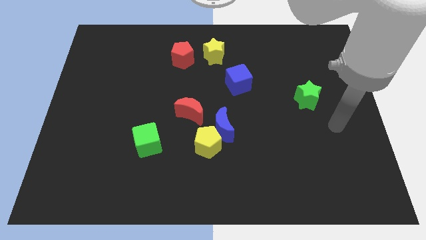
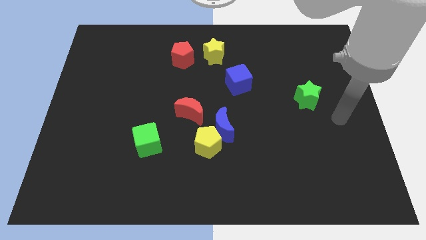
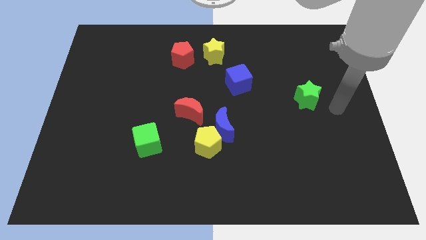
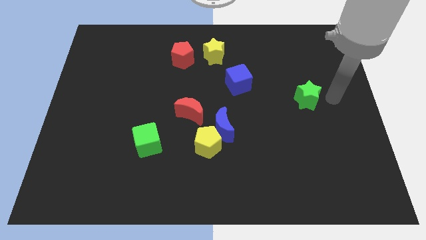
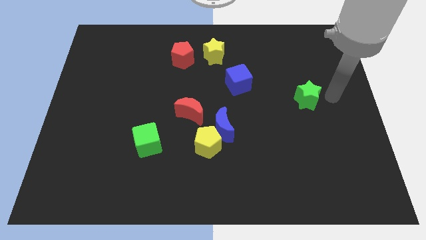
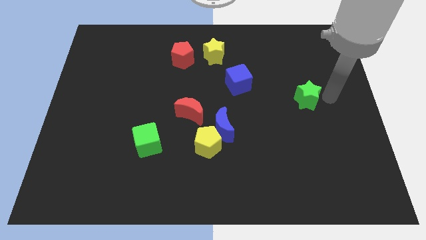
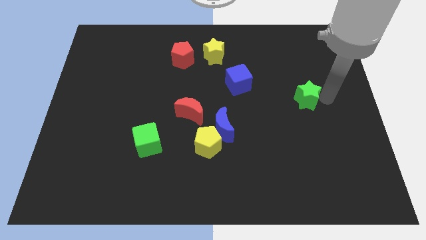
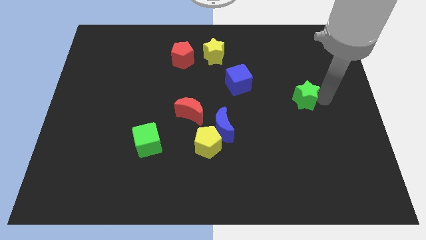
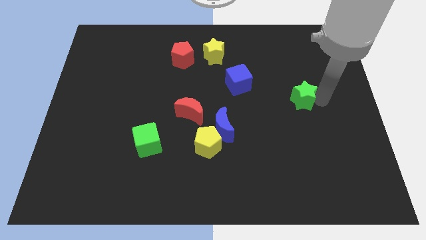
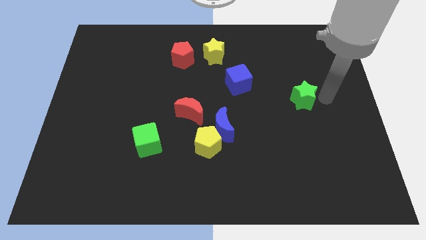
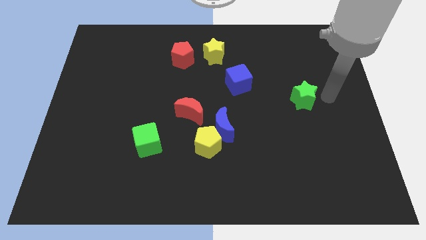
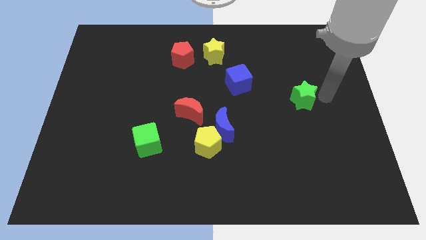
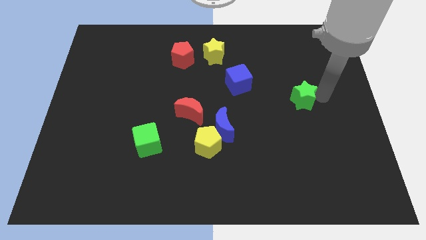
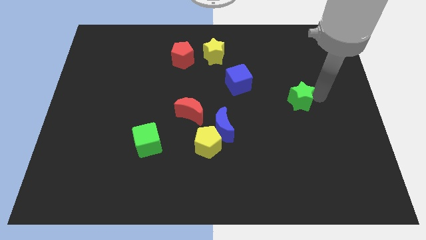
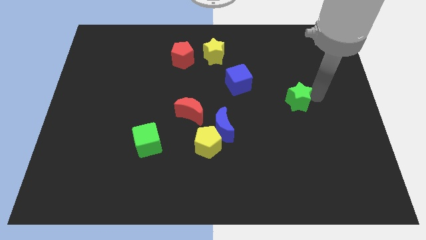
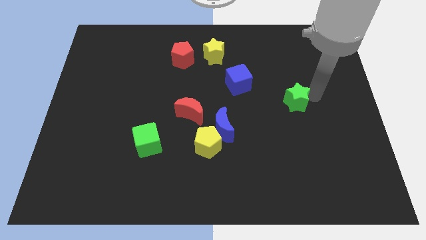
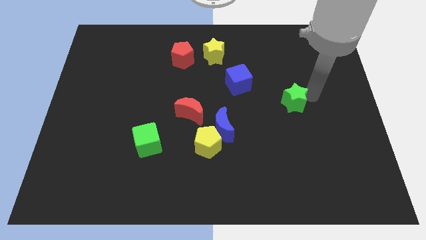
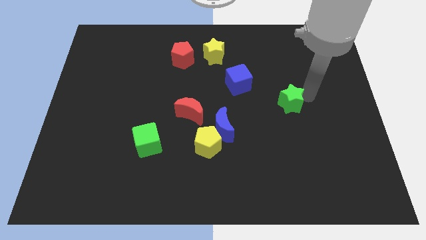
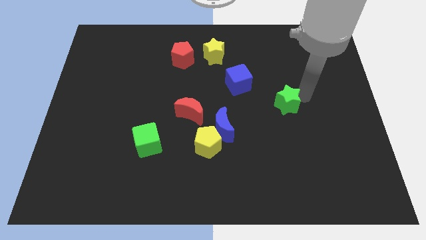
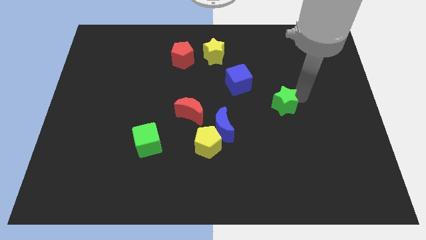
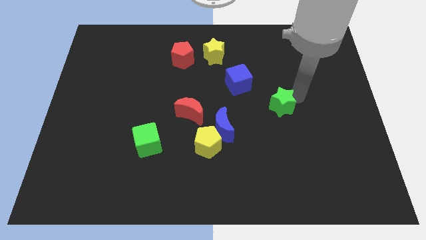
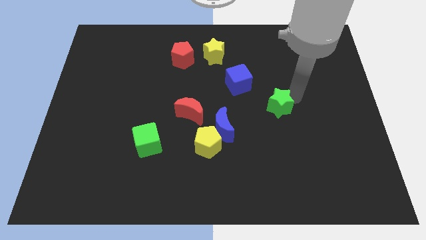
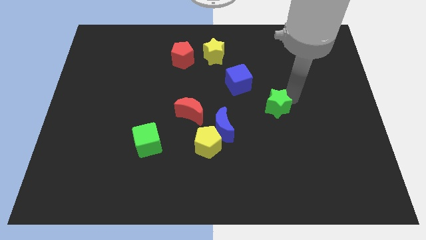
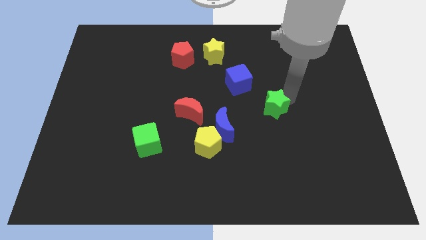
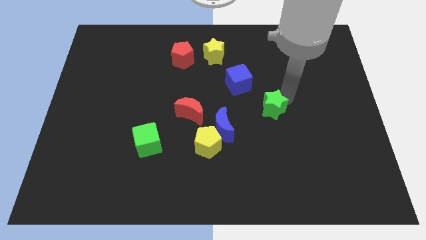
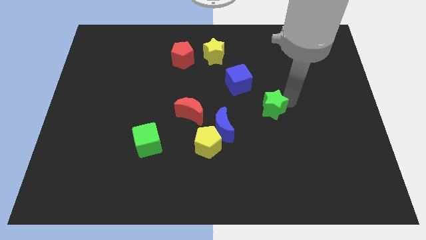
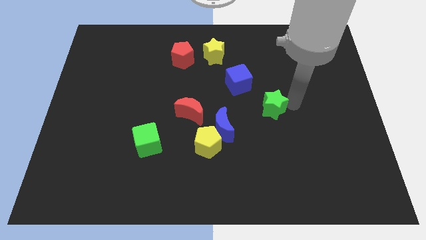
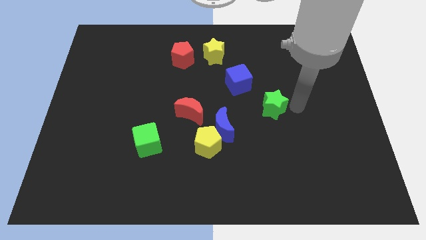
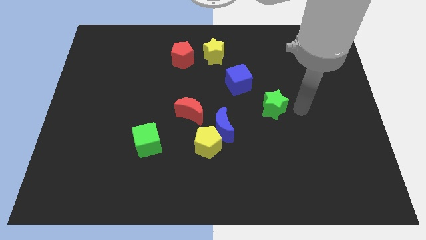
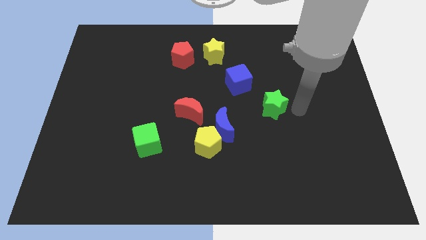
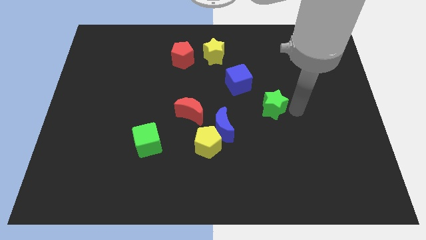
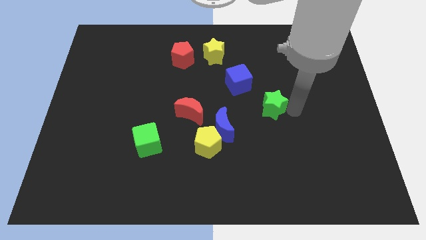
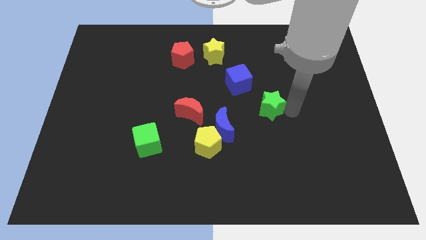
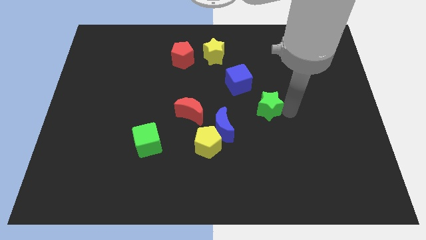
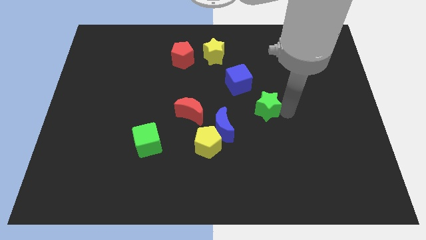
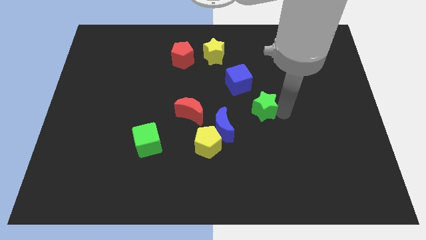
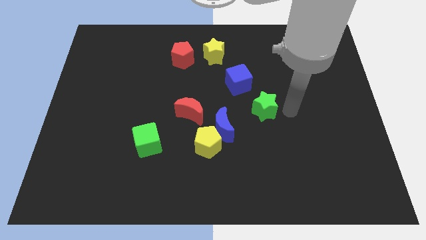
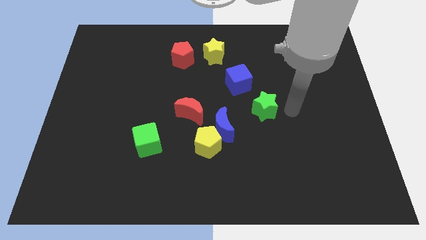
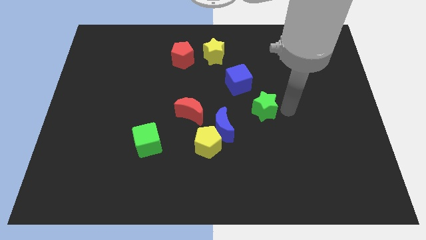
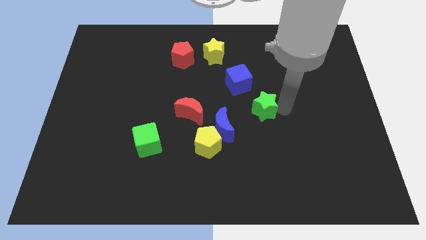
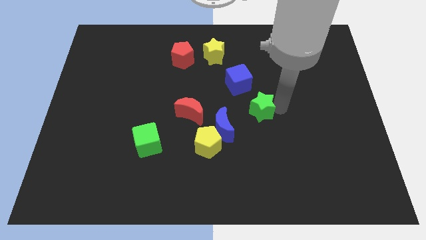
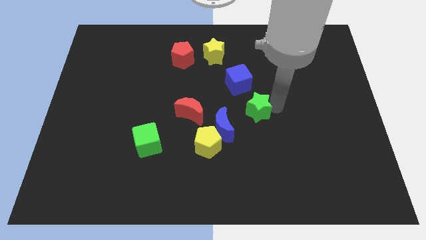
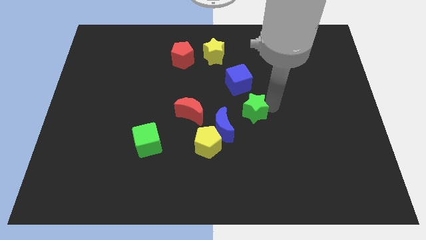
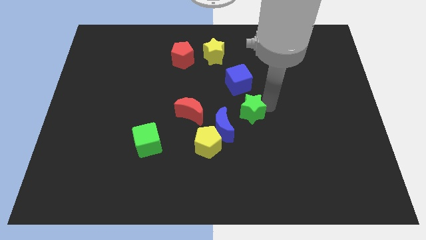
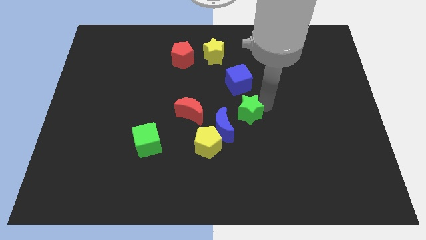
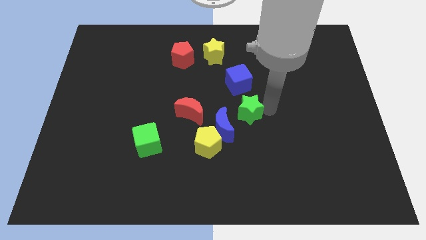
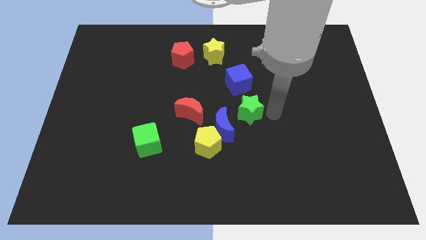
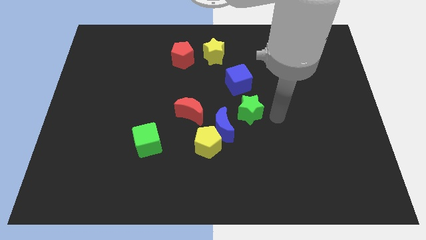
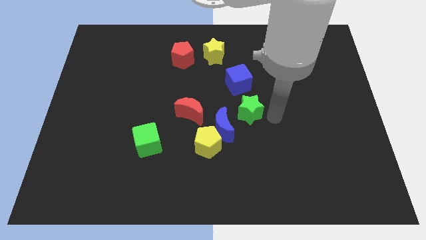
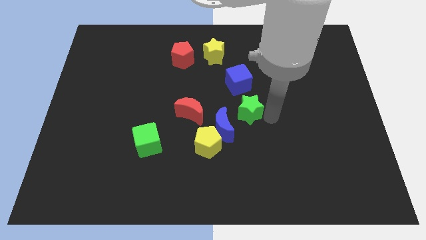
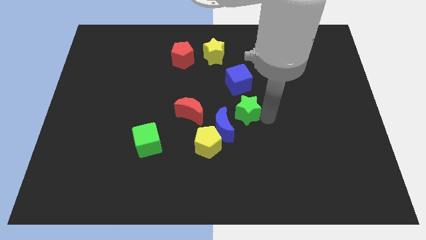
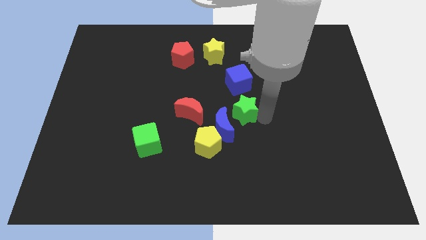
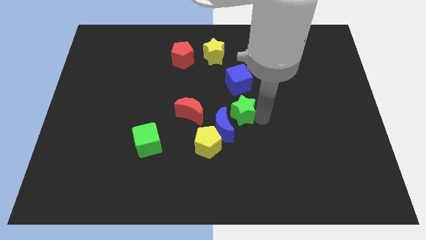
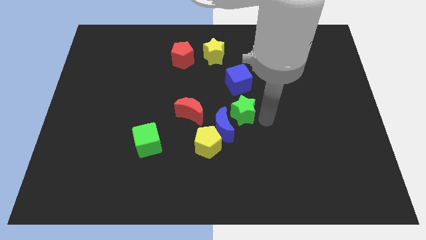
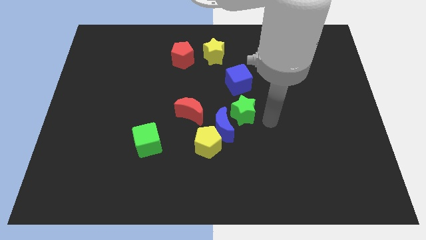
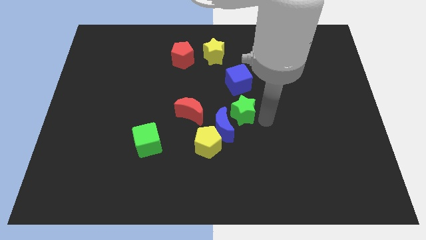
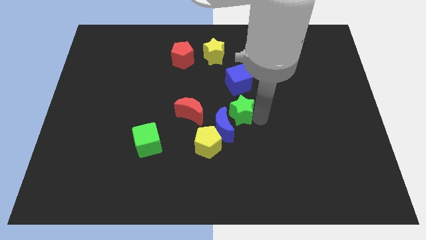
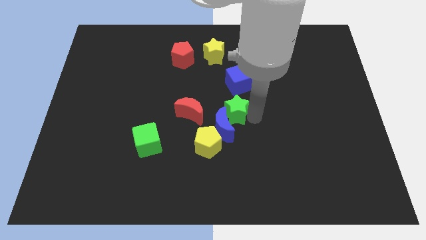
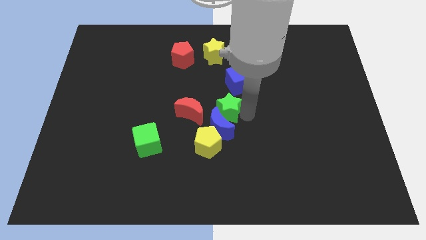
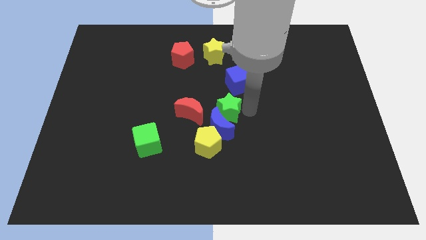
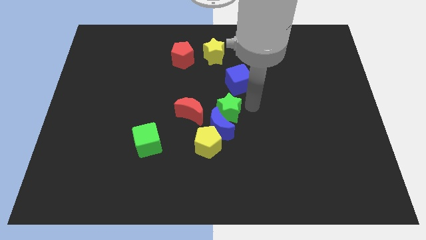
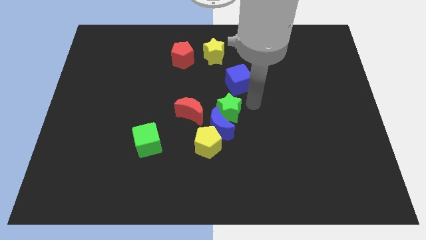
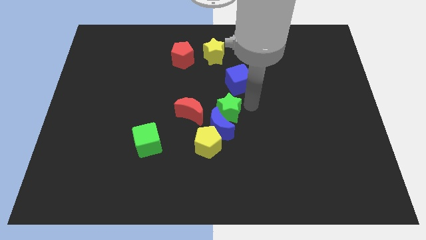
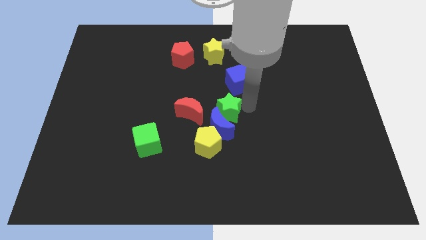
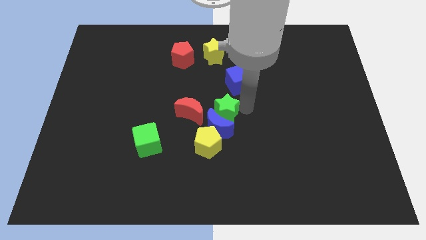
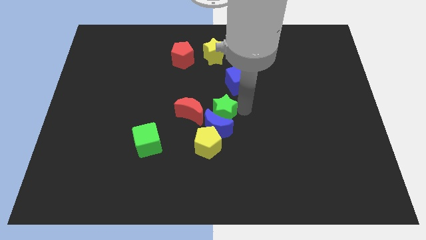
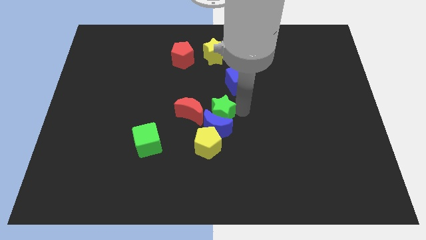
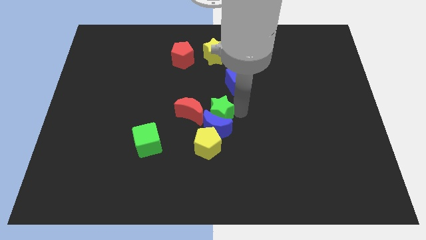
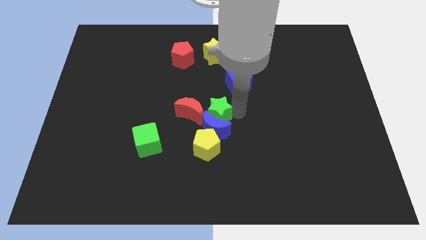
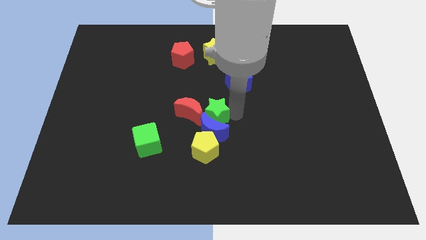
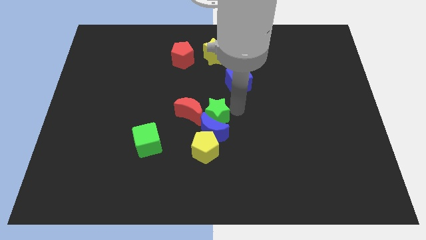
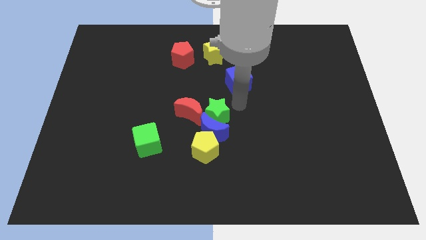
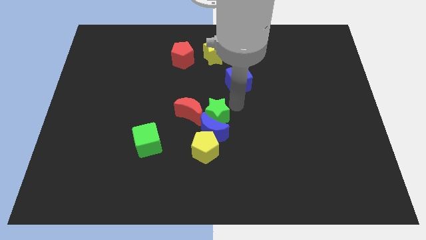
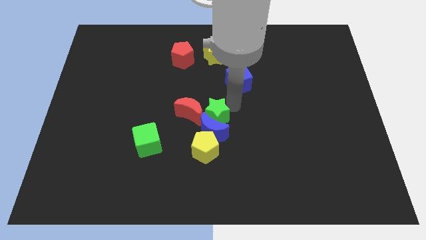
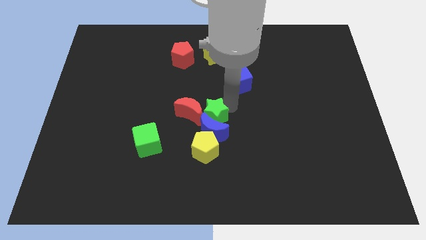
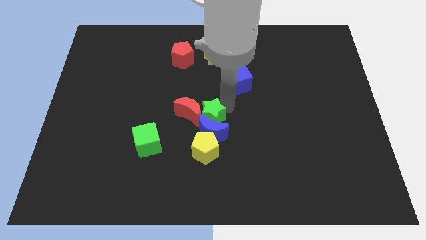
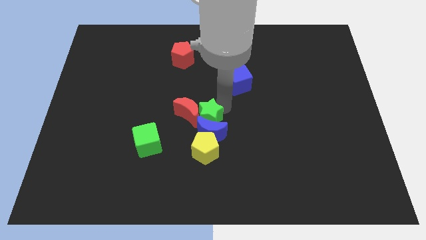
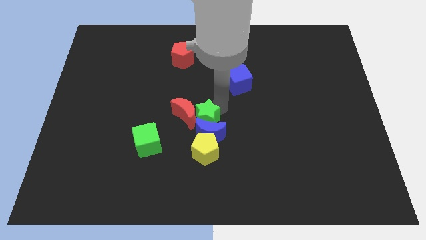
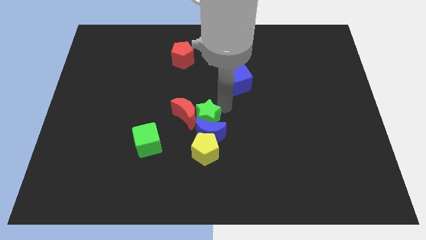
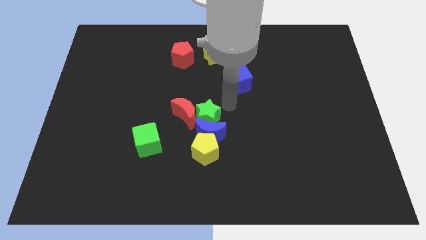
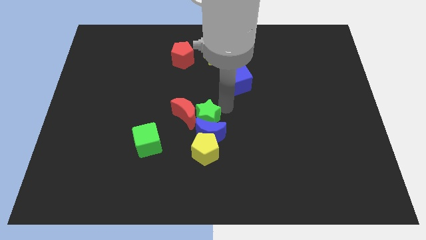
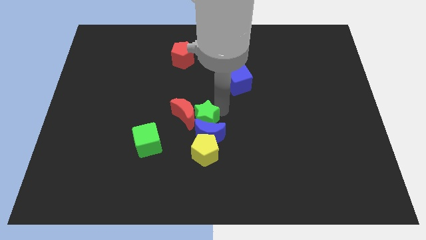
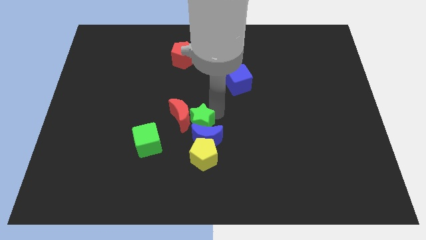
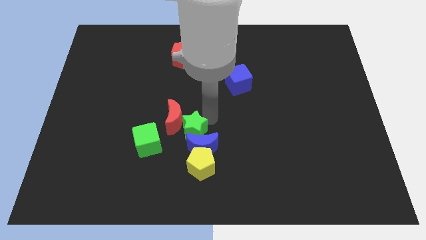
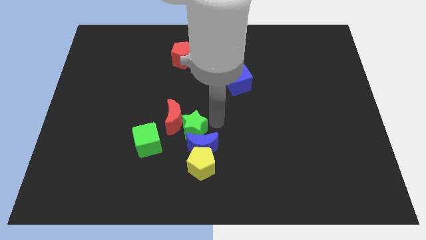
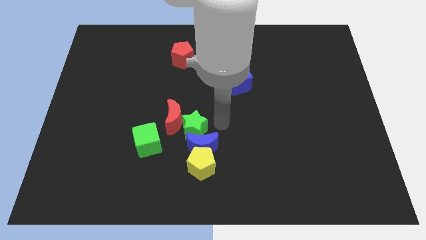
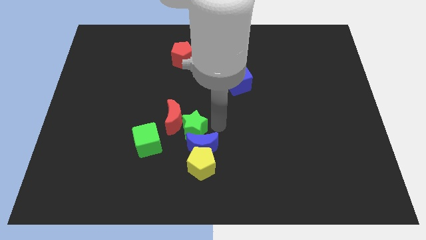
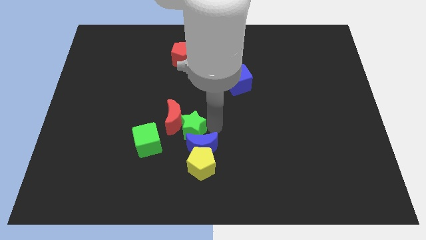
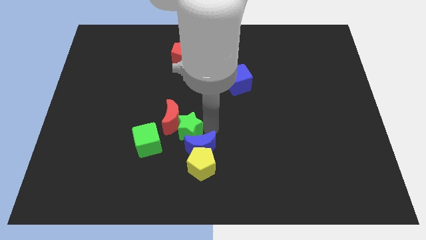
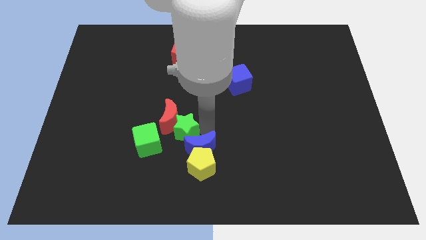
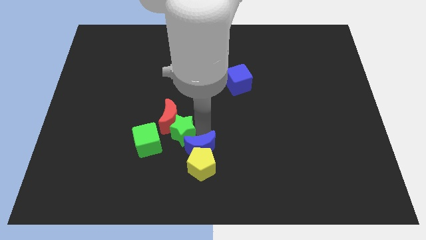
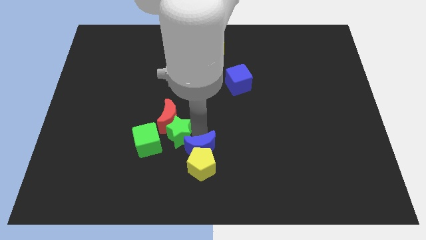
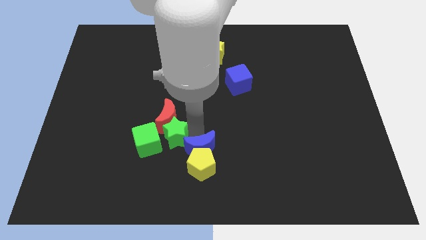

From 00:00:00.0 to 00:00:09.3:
put the green star diagonally down and to the left of the red moon
